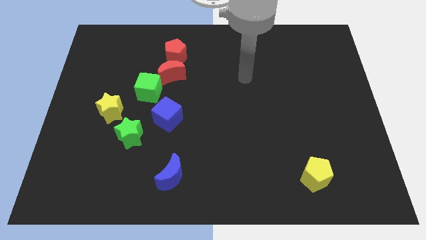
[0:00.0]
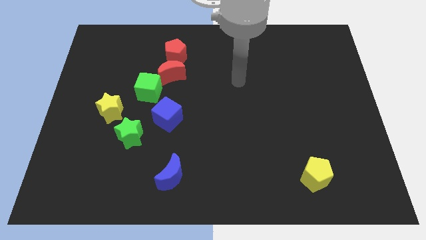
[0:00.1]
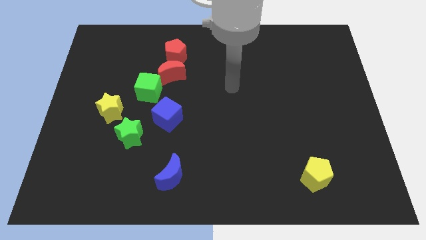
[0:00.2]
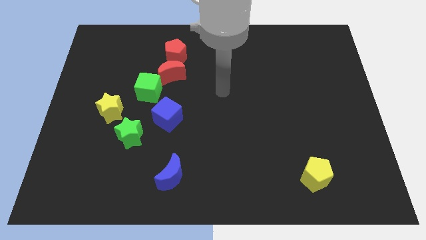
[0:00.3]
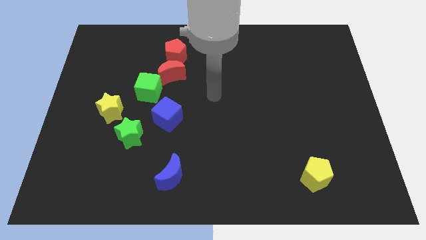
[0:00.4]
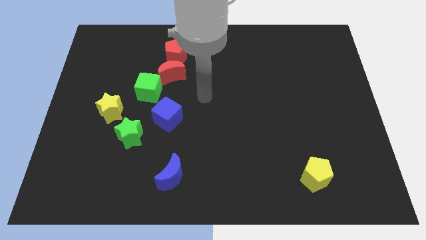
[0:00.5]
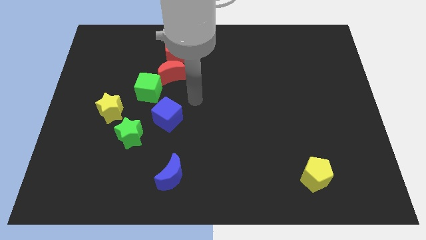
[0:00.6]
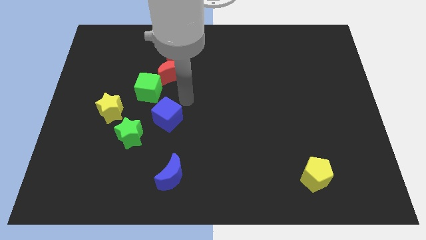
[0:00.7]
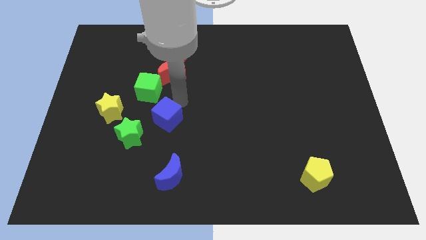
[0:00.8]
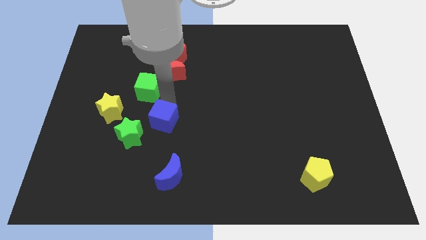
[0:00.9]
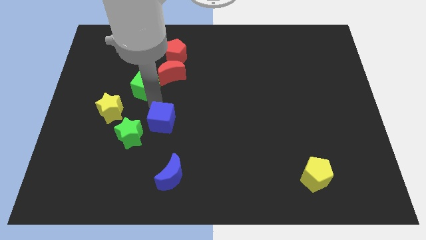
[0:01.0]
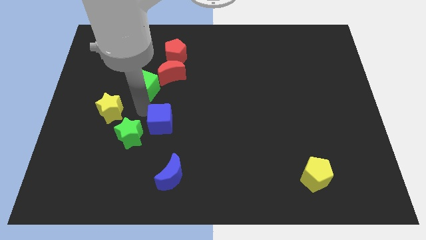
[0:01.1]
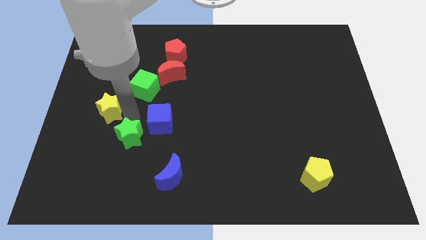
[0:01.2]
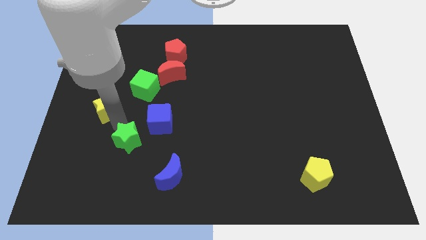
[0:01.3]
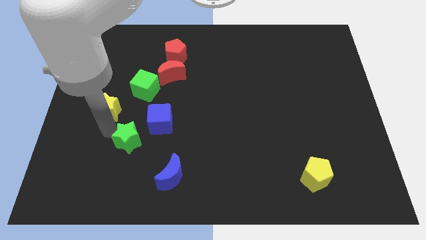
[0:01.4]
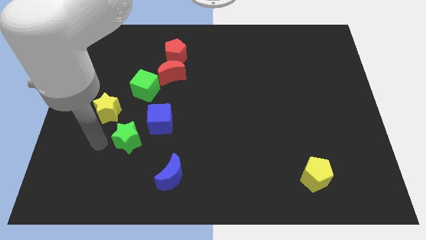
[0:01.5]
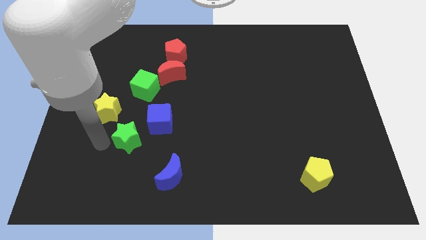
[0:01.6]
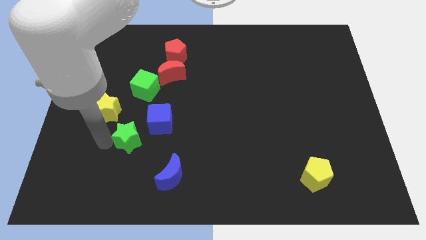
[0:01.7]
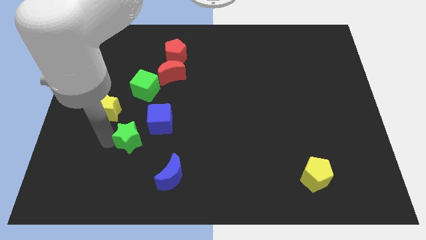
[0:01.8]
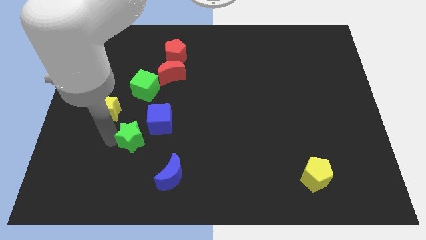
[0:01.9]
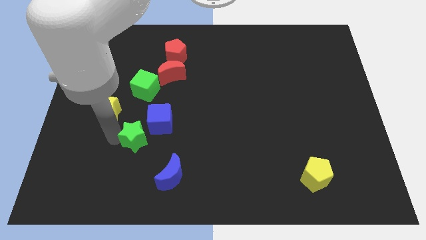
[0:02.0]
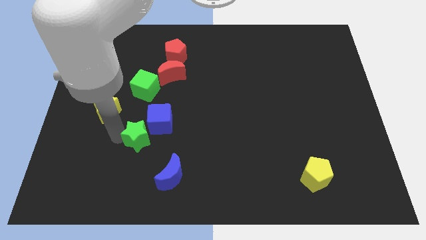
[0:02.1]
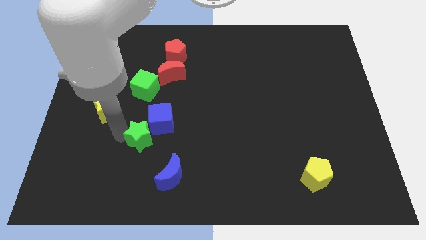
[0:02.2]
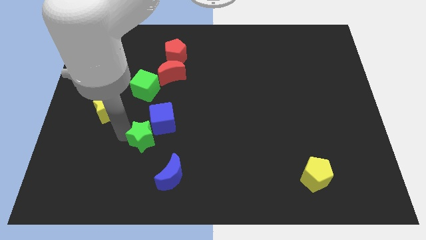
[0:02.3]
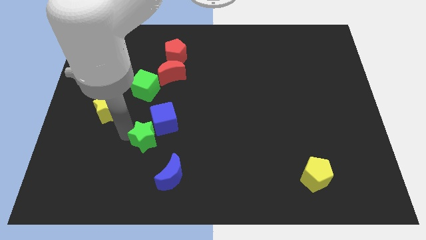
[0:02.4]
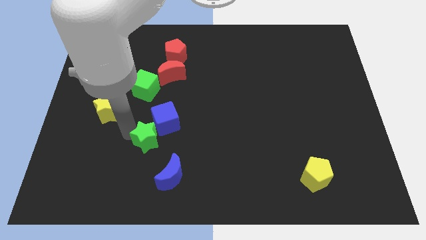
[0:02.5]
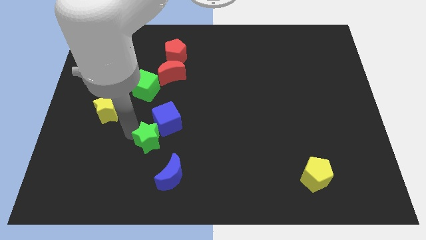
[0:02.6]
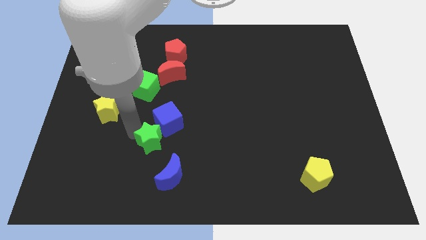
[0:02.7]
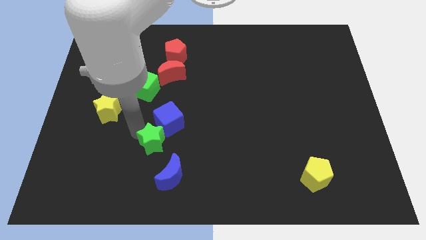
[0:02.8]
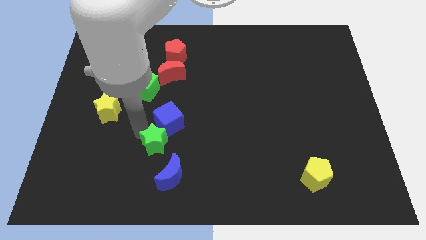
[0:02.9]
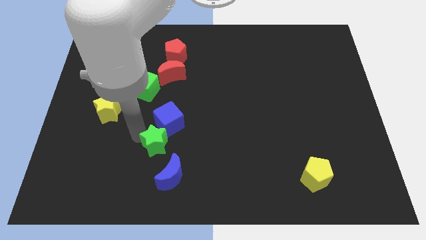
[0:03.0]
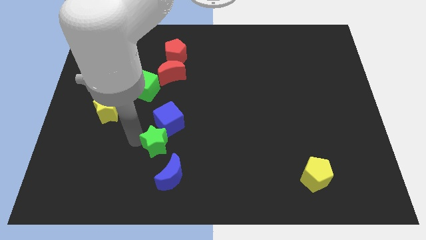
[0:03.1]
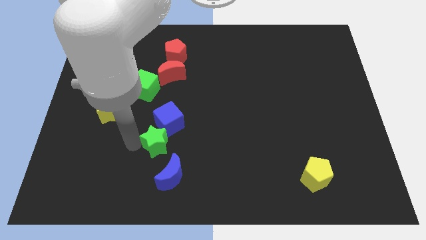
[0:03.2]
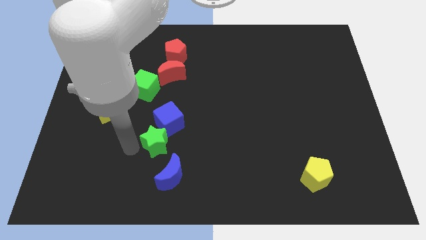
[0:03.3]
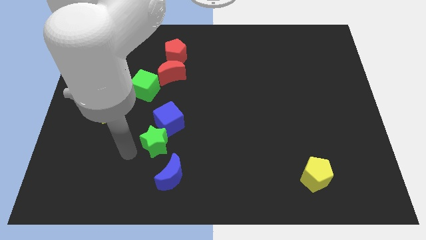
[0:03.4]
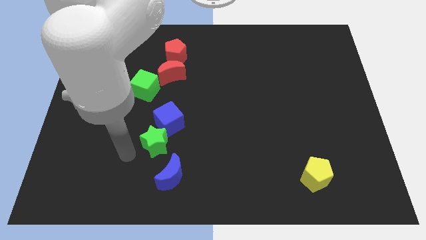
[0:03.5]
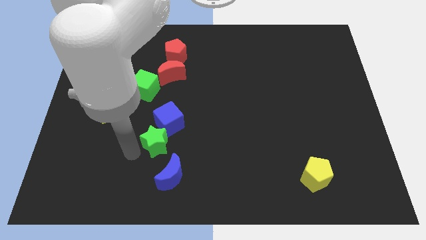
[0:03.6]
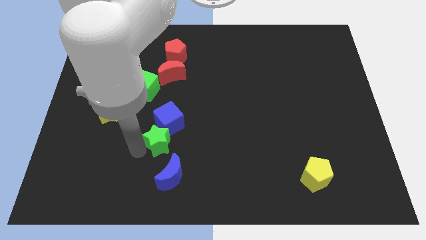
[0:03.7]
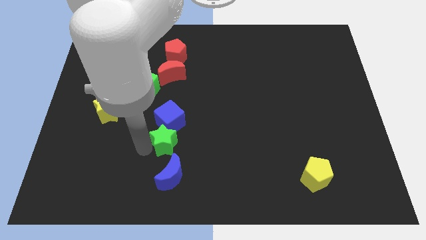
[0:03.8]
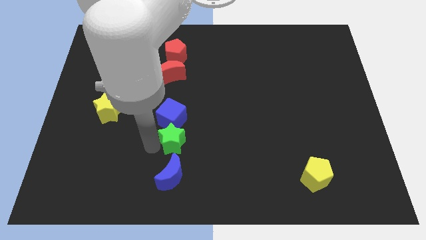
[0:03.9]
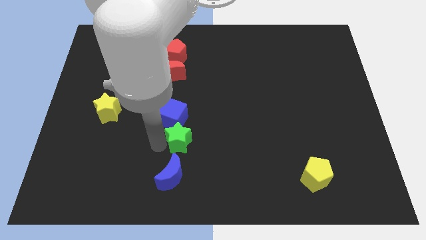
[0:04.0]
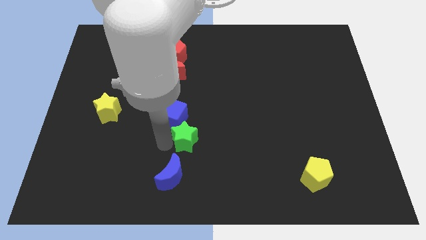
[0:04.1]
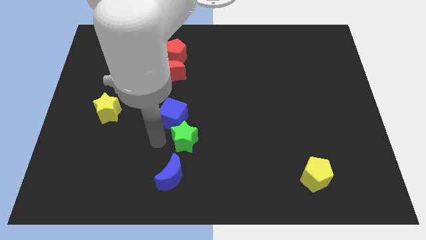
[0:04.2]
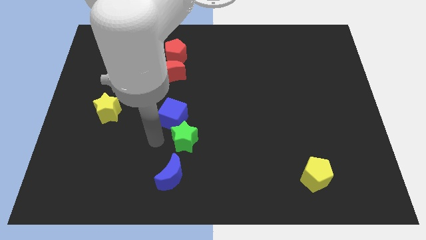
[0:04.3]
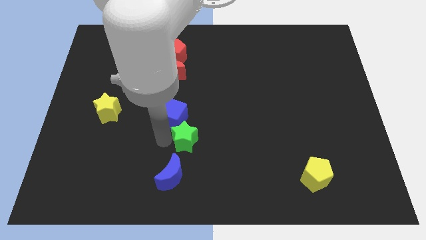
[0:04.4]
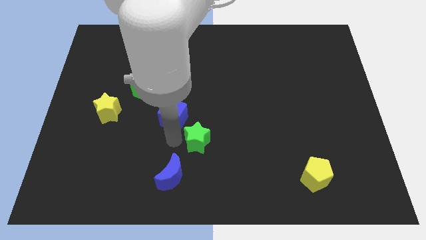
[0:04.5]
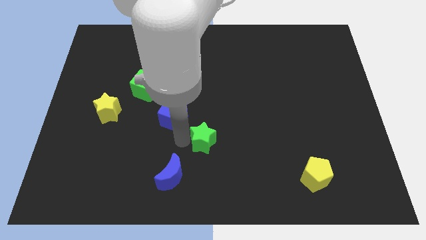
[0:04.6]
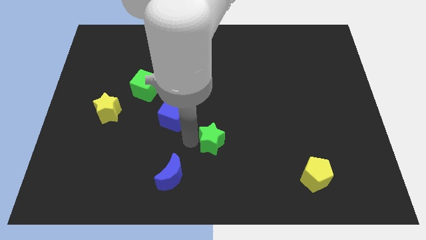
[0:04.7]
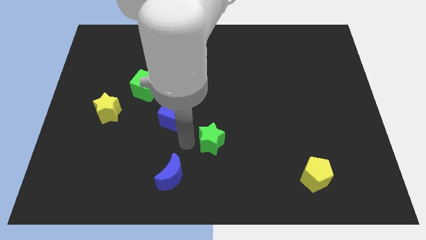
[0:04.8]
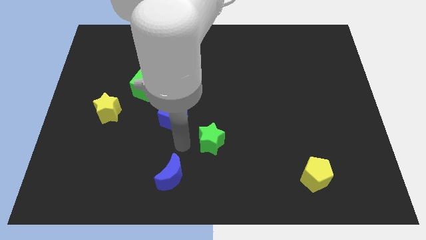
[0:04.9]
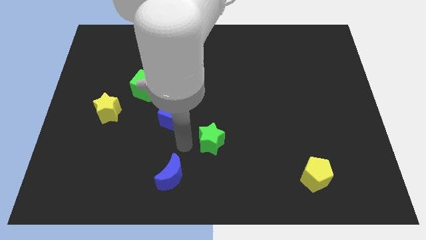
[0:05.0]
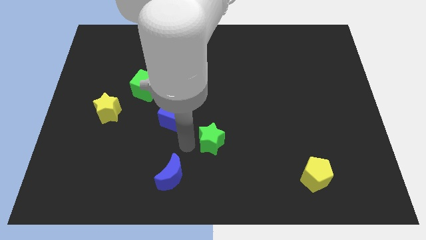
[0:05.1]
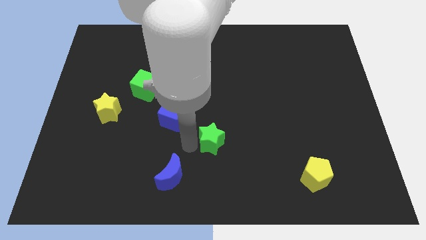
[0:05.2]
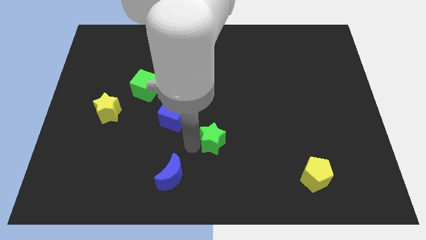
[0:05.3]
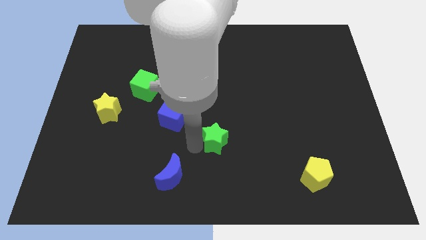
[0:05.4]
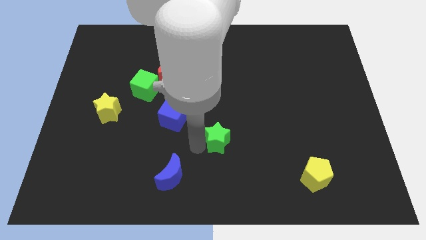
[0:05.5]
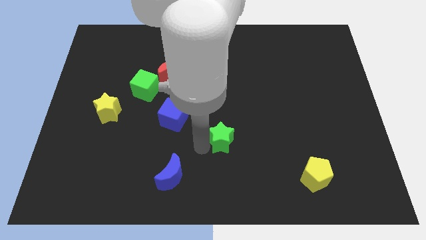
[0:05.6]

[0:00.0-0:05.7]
slide the green star right

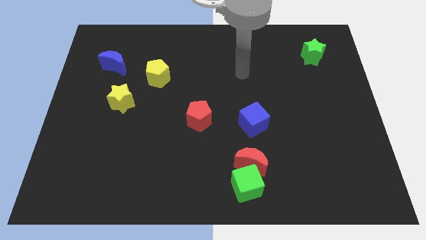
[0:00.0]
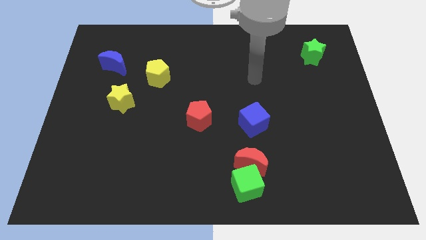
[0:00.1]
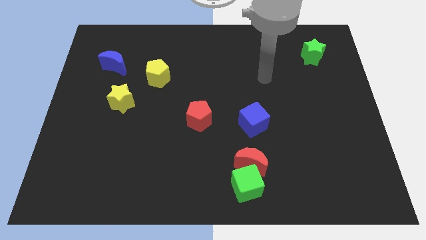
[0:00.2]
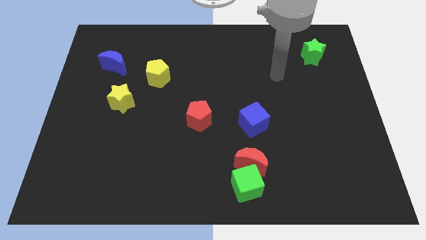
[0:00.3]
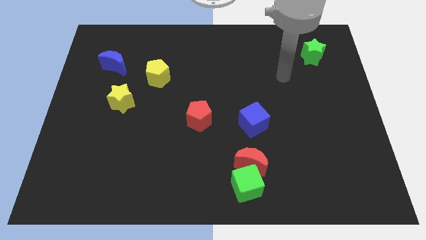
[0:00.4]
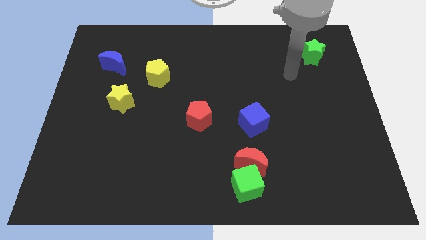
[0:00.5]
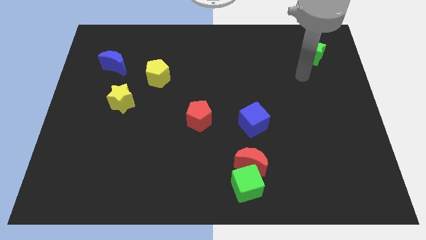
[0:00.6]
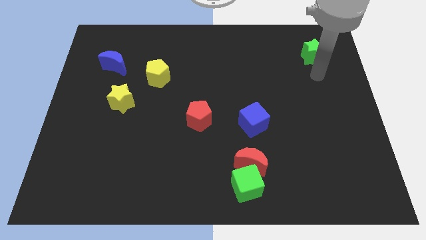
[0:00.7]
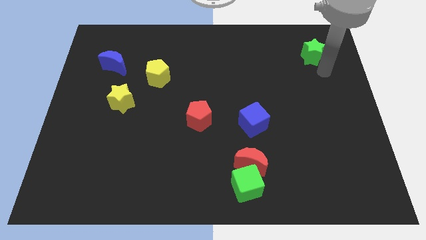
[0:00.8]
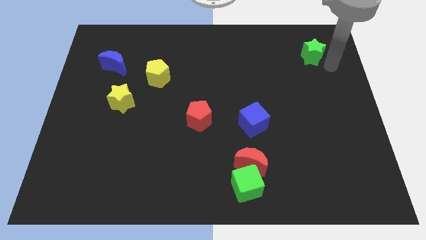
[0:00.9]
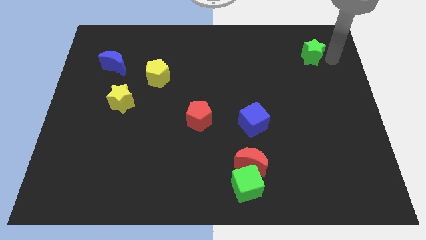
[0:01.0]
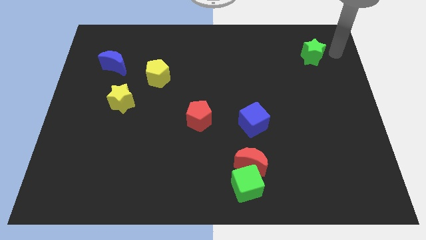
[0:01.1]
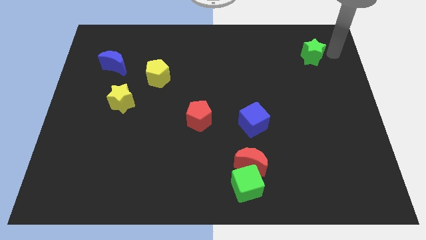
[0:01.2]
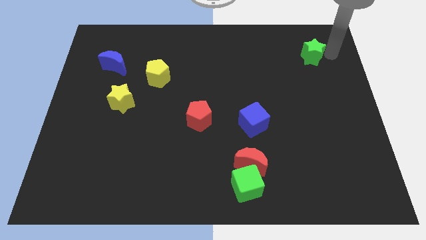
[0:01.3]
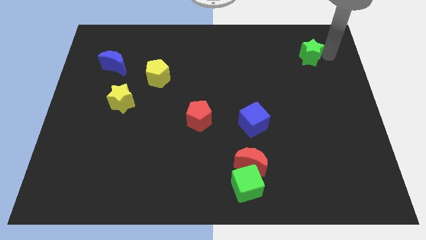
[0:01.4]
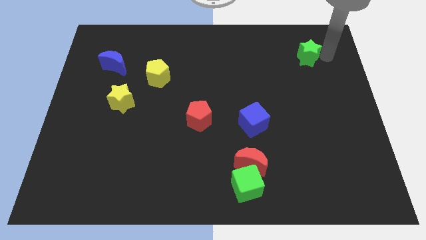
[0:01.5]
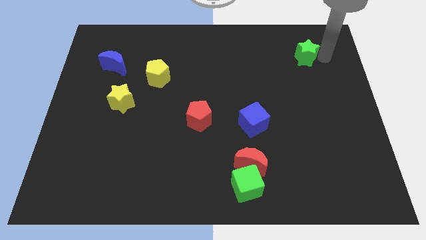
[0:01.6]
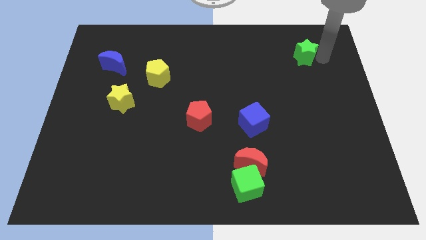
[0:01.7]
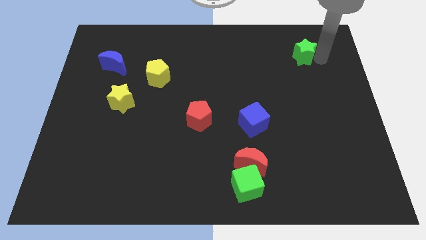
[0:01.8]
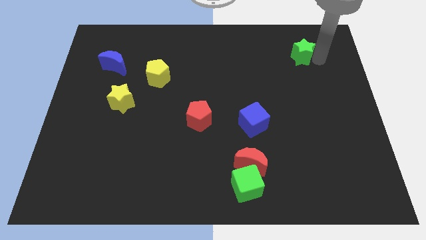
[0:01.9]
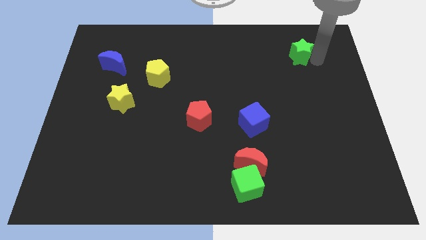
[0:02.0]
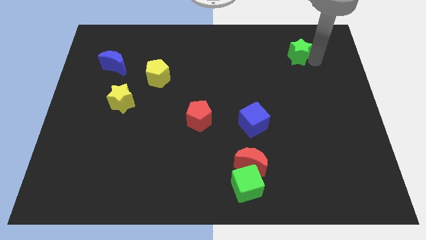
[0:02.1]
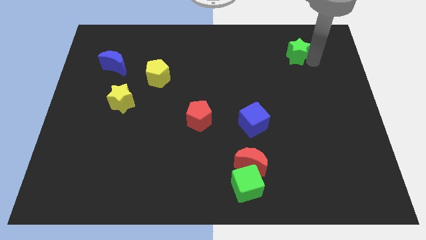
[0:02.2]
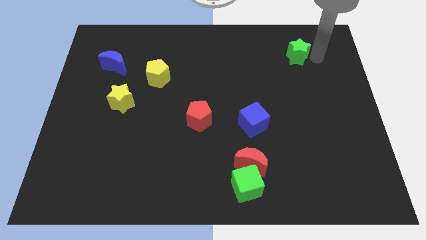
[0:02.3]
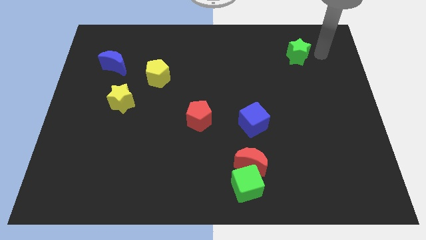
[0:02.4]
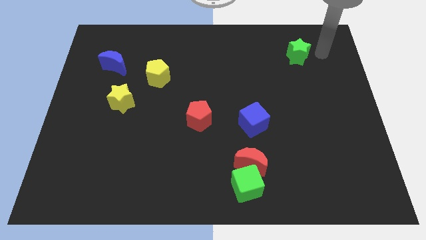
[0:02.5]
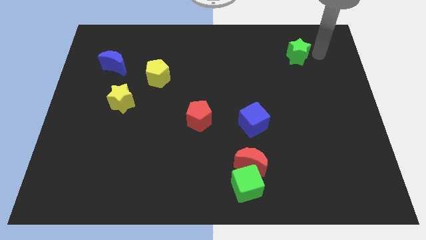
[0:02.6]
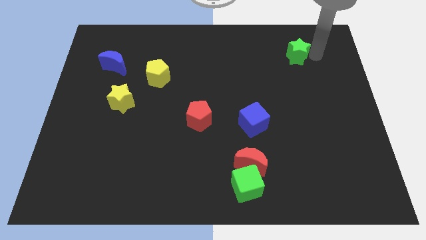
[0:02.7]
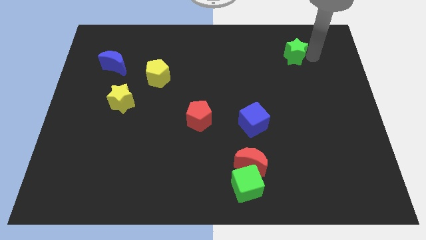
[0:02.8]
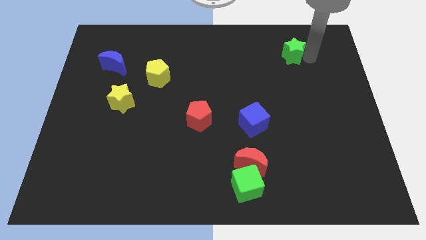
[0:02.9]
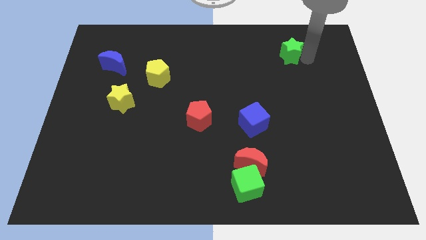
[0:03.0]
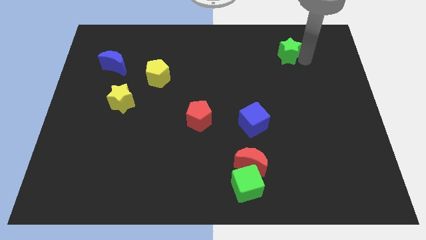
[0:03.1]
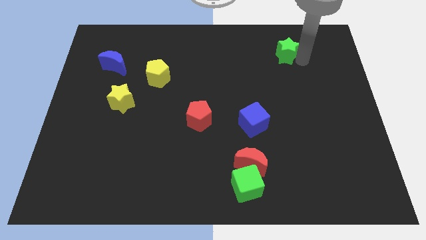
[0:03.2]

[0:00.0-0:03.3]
push the green star to the left a little bit
